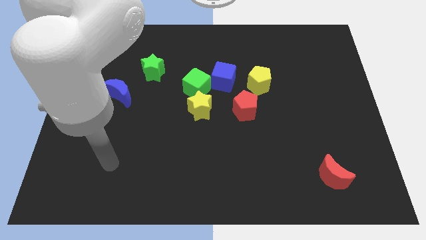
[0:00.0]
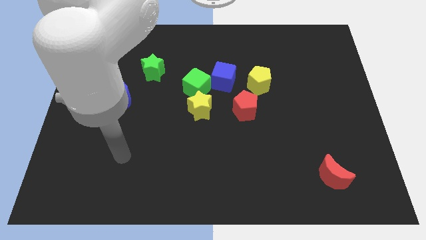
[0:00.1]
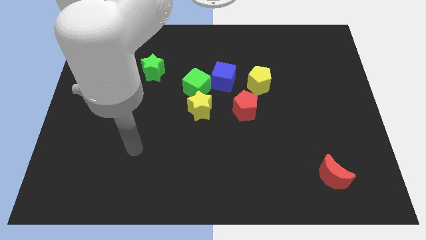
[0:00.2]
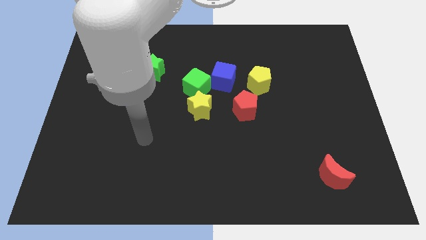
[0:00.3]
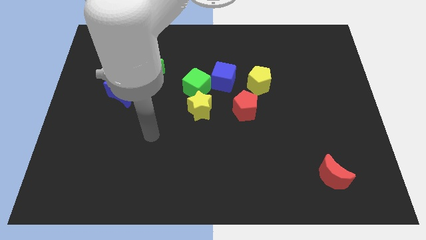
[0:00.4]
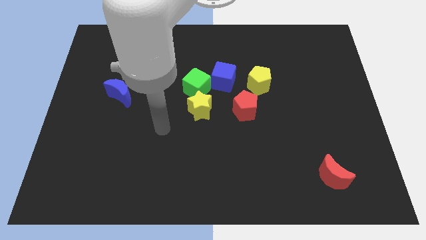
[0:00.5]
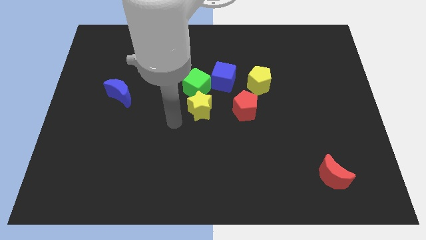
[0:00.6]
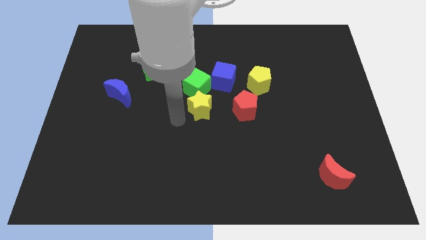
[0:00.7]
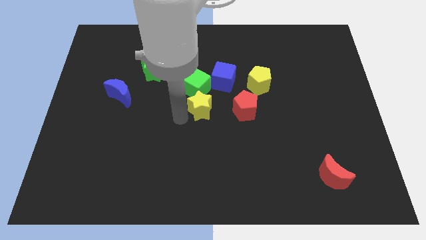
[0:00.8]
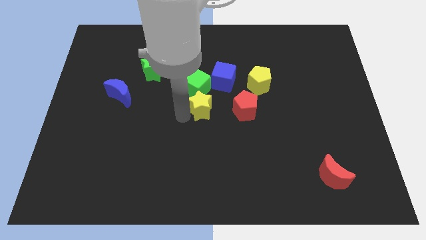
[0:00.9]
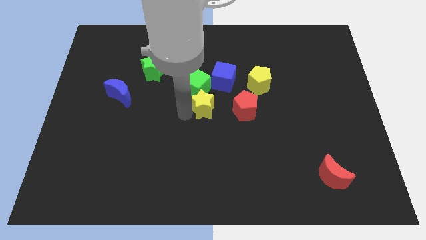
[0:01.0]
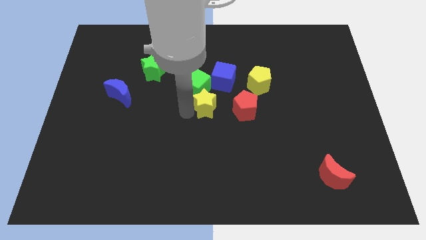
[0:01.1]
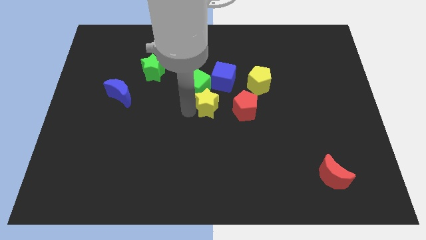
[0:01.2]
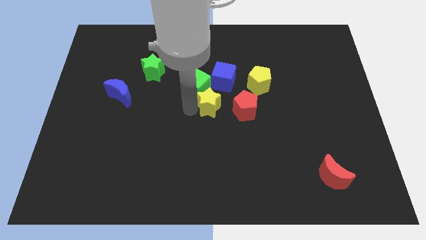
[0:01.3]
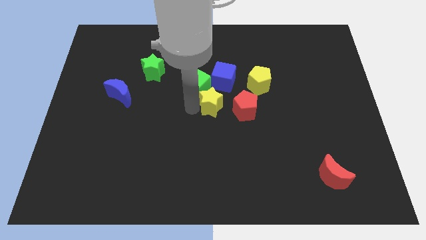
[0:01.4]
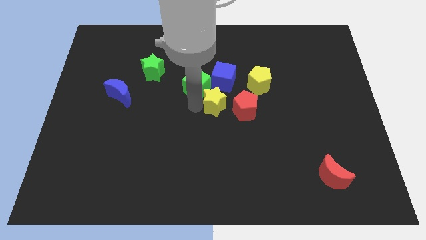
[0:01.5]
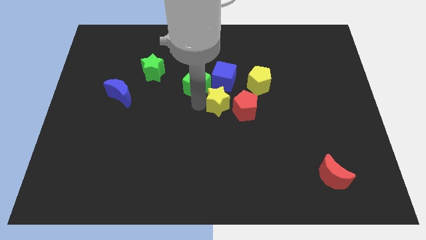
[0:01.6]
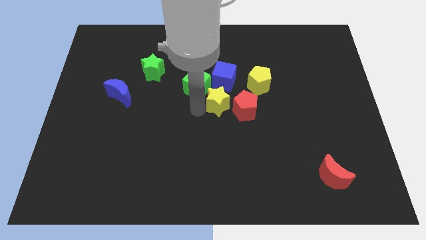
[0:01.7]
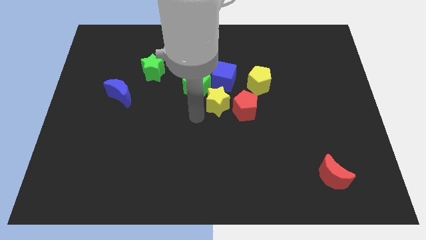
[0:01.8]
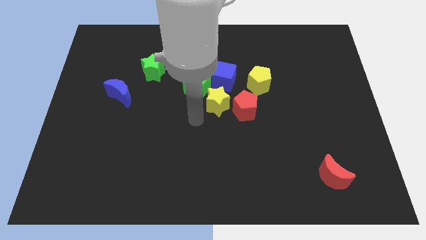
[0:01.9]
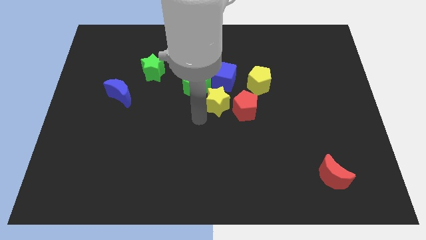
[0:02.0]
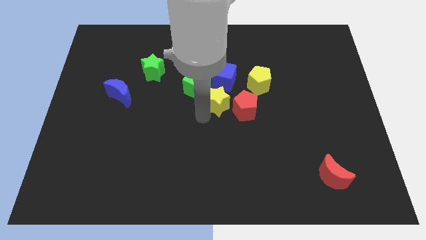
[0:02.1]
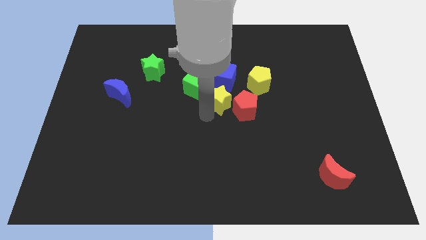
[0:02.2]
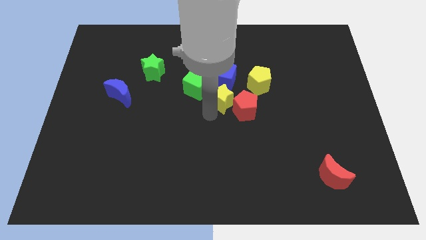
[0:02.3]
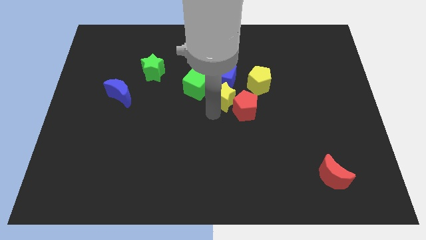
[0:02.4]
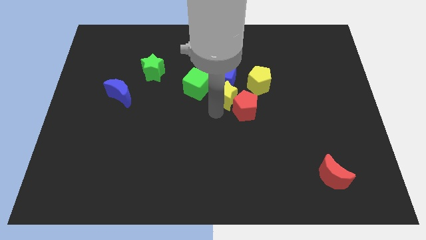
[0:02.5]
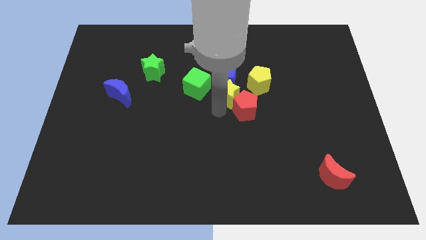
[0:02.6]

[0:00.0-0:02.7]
push the yellow star up and then right a little bit

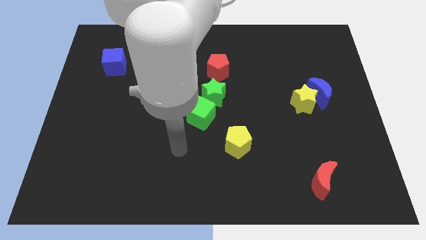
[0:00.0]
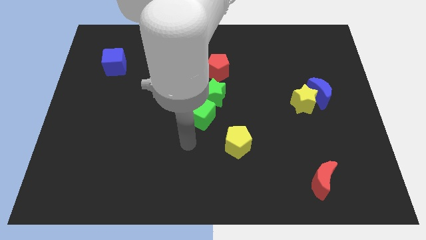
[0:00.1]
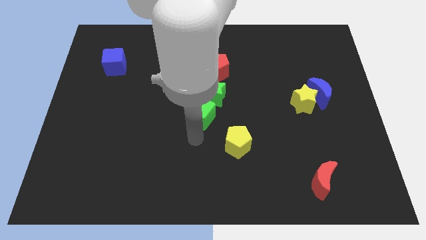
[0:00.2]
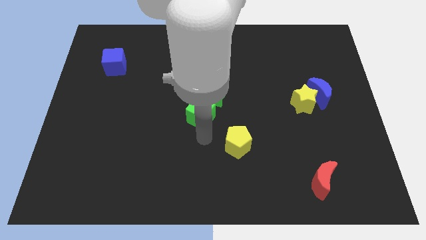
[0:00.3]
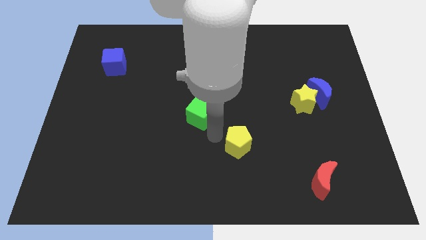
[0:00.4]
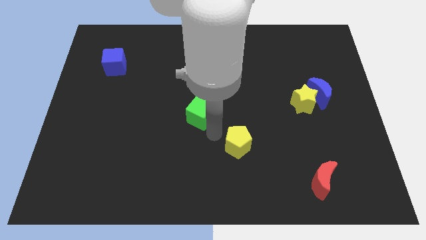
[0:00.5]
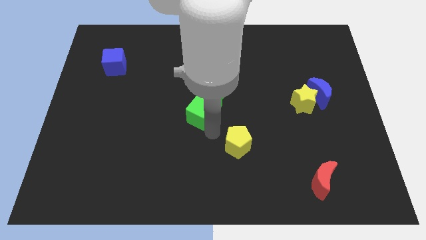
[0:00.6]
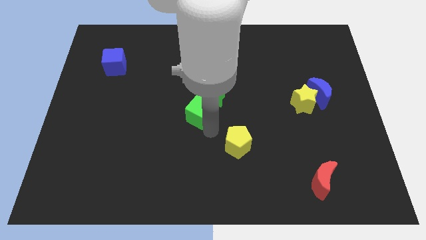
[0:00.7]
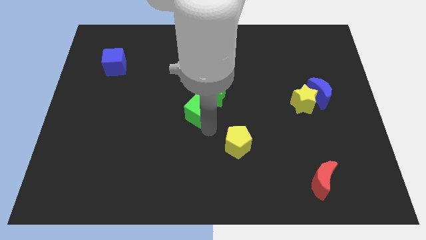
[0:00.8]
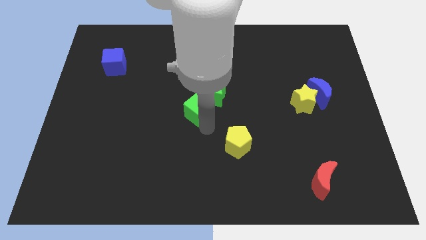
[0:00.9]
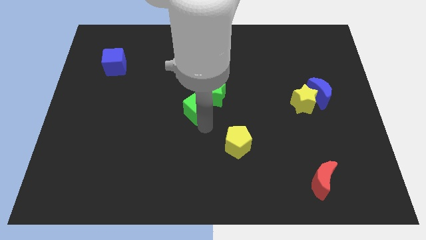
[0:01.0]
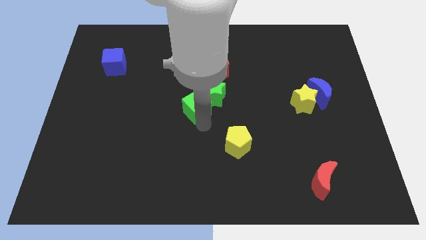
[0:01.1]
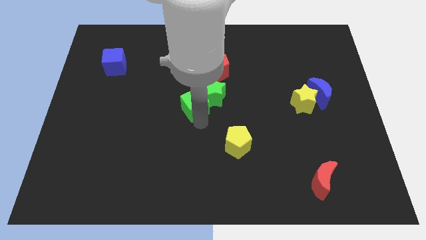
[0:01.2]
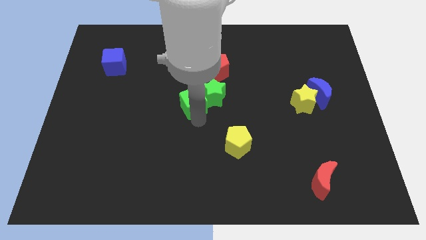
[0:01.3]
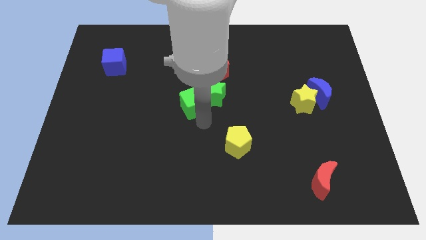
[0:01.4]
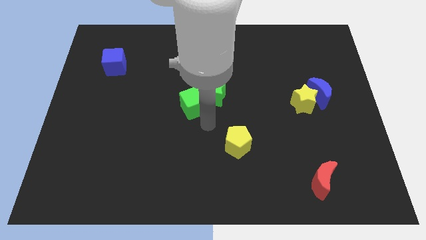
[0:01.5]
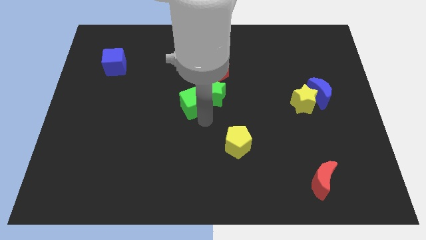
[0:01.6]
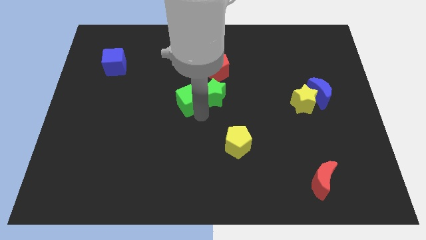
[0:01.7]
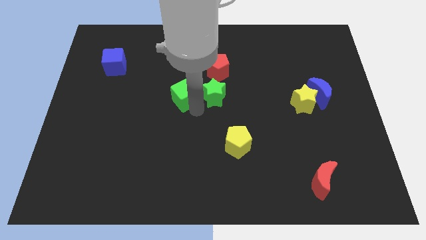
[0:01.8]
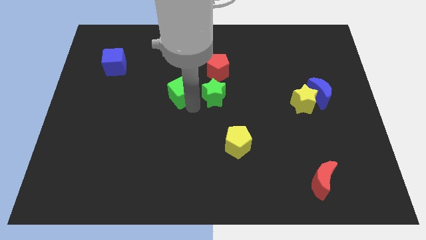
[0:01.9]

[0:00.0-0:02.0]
slightly slide the green cube upwards and to the left diagonally

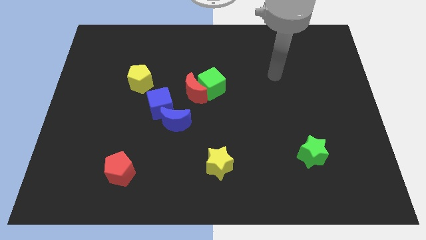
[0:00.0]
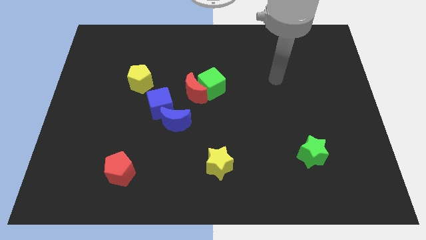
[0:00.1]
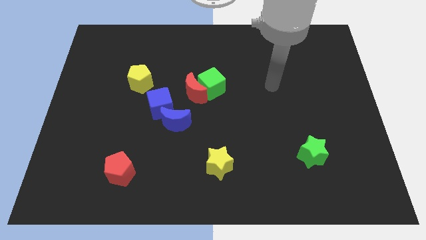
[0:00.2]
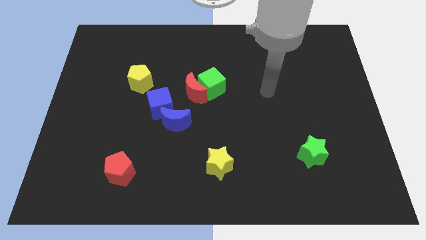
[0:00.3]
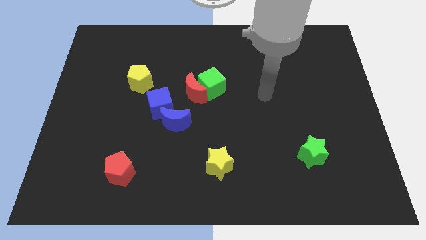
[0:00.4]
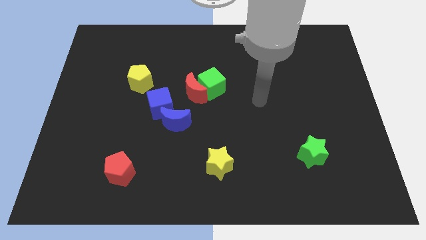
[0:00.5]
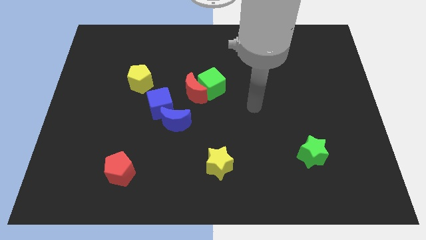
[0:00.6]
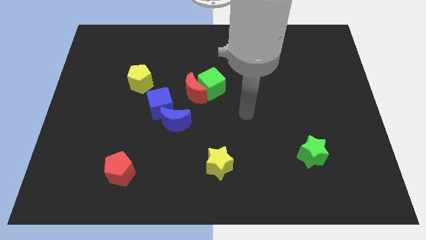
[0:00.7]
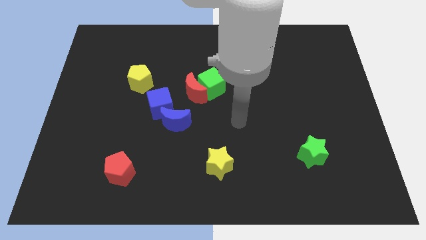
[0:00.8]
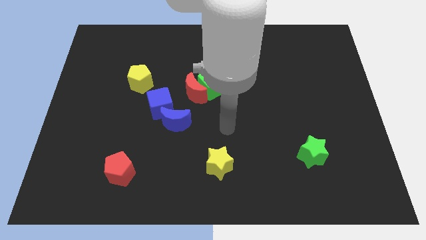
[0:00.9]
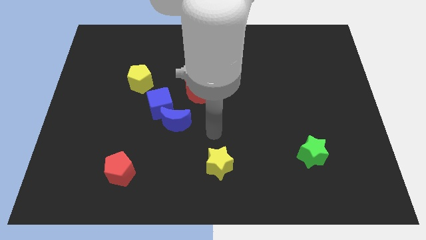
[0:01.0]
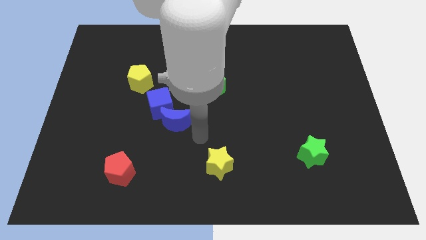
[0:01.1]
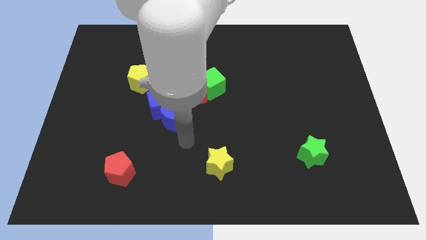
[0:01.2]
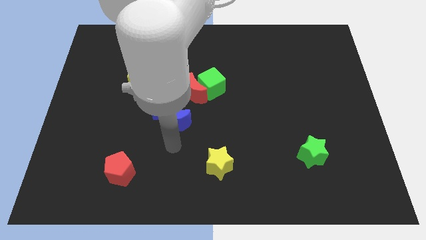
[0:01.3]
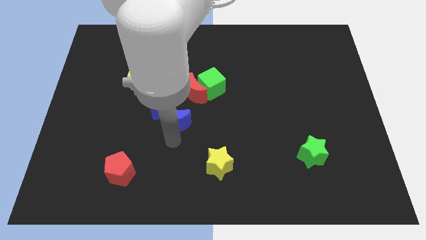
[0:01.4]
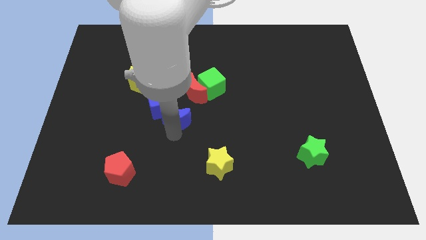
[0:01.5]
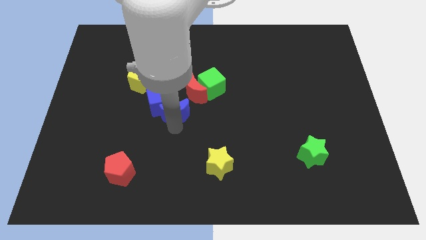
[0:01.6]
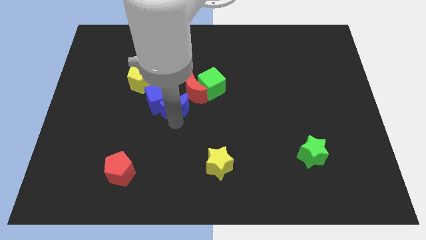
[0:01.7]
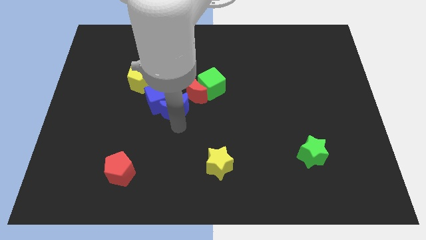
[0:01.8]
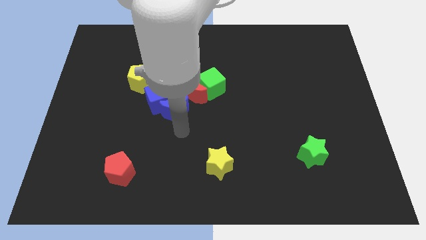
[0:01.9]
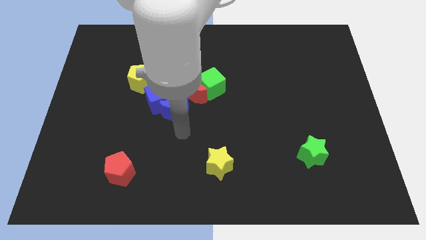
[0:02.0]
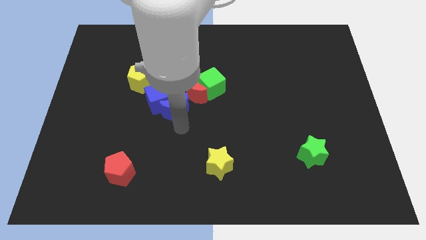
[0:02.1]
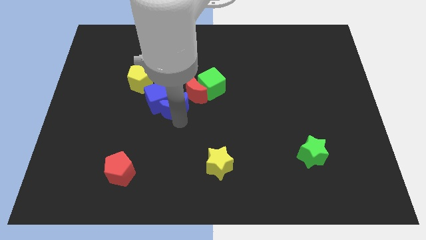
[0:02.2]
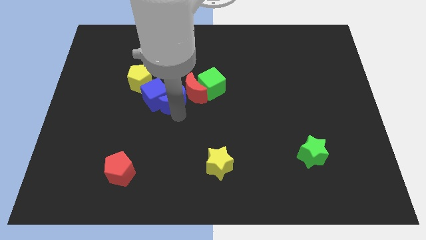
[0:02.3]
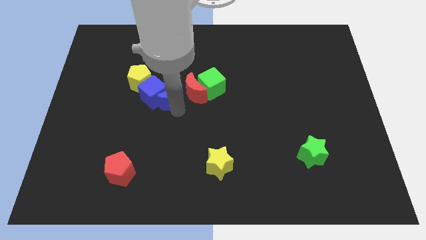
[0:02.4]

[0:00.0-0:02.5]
slightly move the blue moon upwards

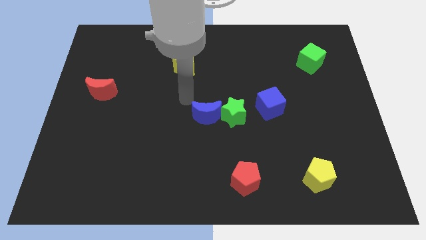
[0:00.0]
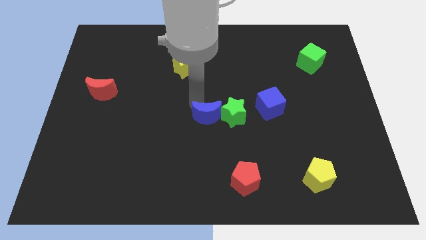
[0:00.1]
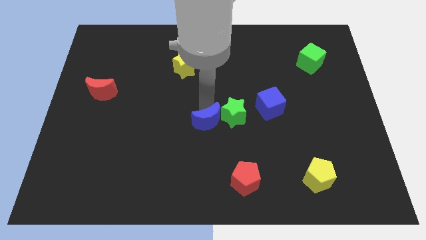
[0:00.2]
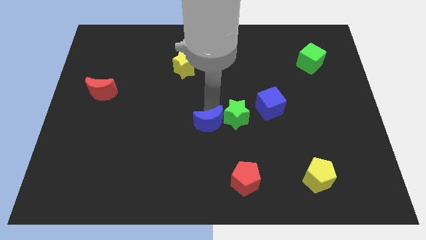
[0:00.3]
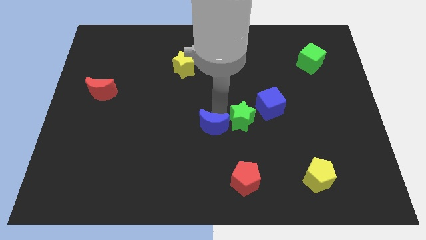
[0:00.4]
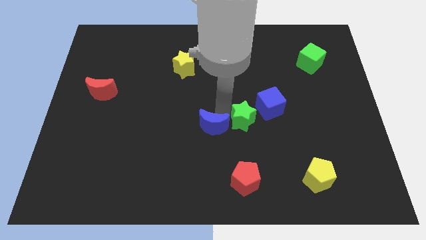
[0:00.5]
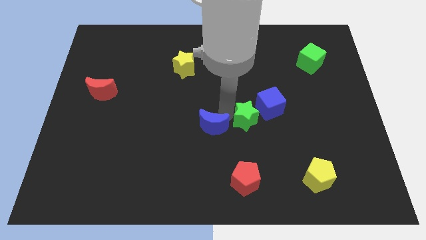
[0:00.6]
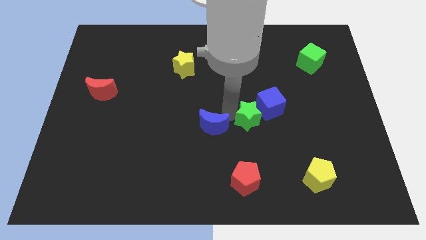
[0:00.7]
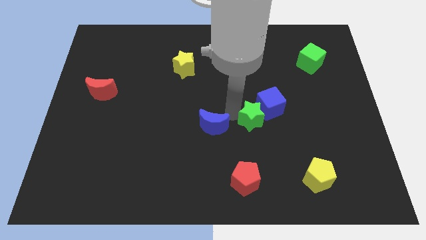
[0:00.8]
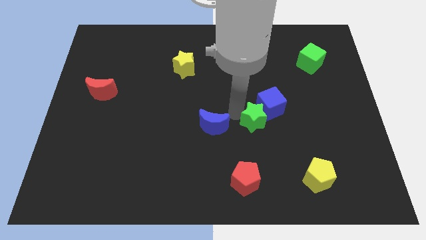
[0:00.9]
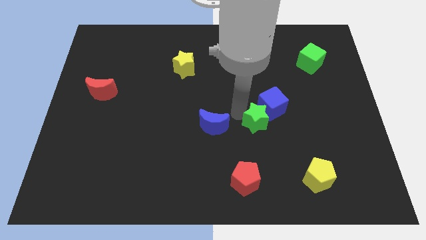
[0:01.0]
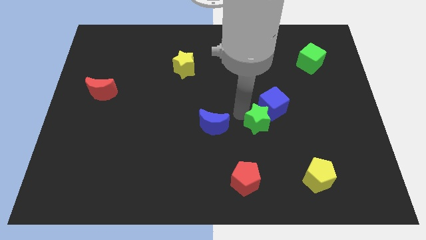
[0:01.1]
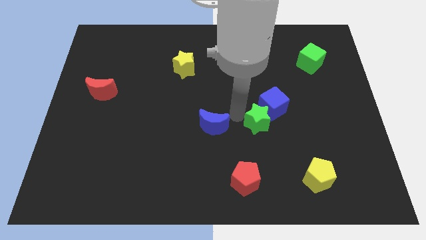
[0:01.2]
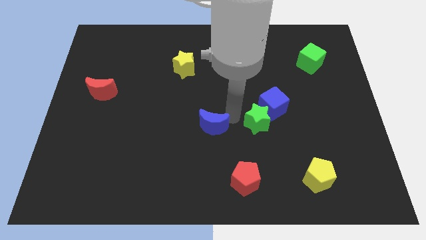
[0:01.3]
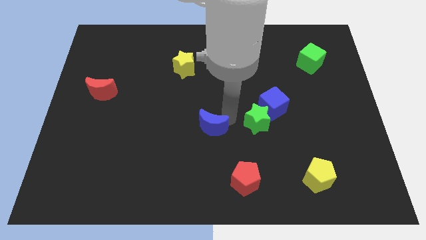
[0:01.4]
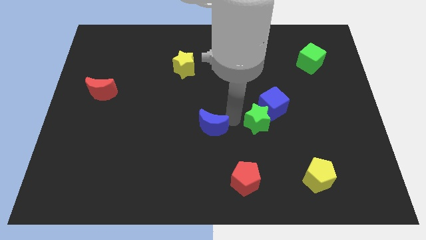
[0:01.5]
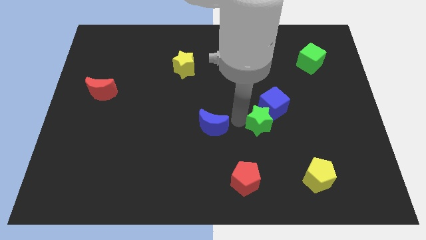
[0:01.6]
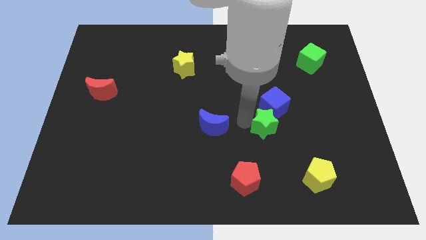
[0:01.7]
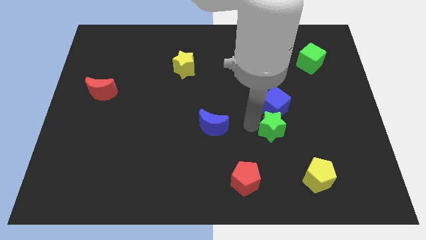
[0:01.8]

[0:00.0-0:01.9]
push the green star somewhat right
